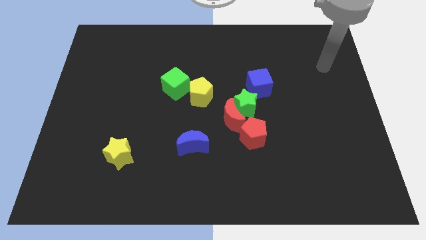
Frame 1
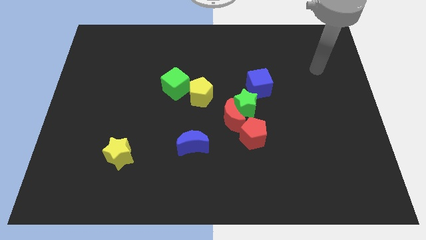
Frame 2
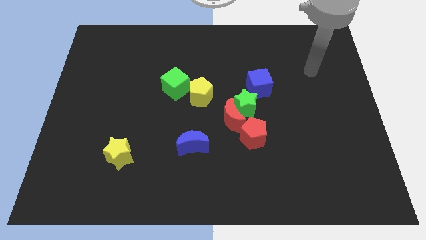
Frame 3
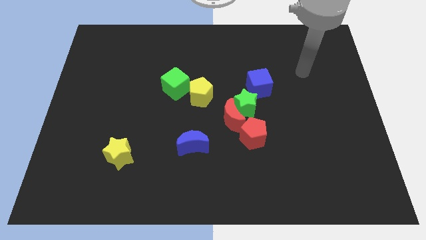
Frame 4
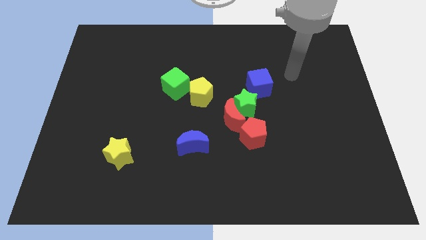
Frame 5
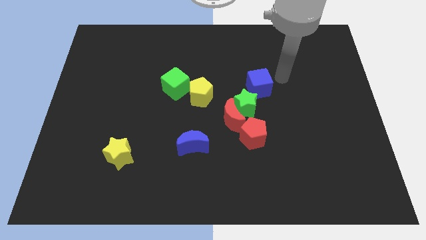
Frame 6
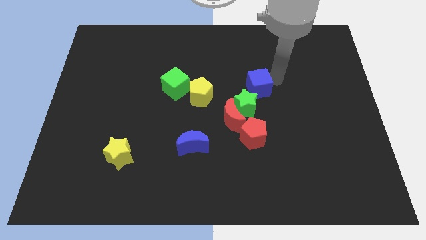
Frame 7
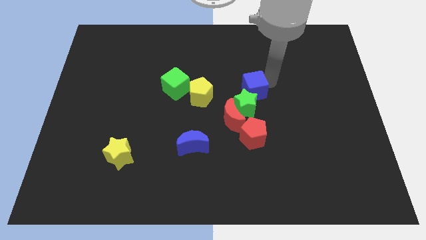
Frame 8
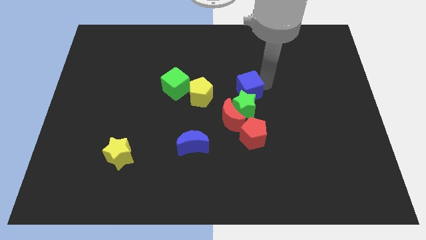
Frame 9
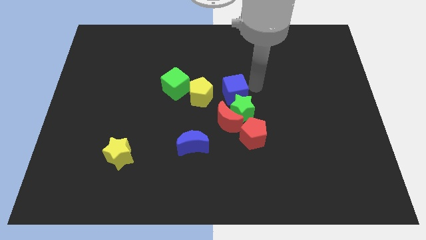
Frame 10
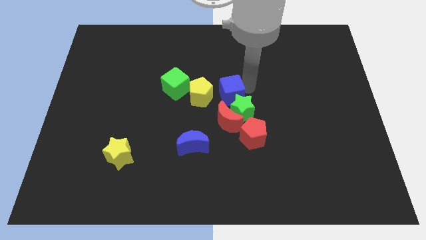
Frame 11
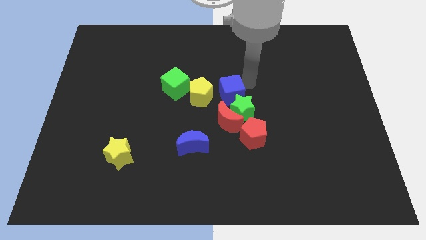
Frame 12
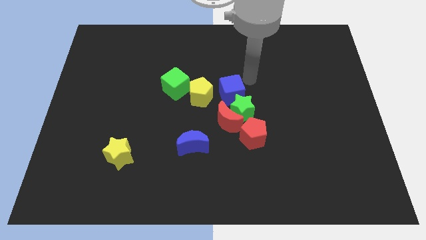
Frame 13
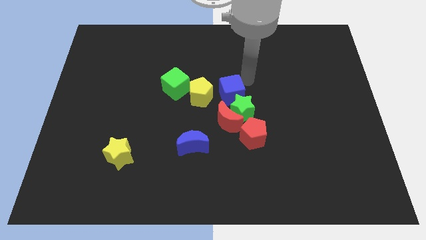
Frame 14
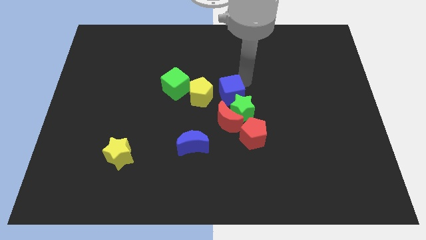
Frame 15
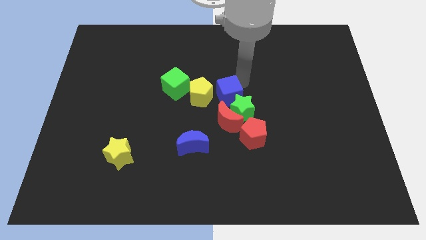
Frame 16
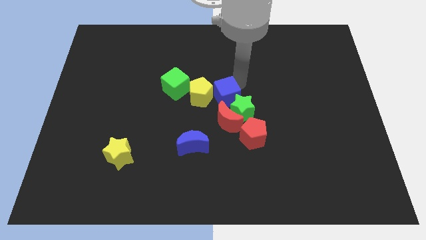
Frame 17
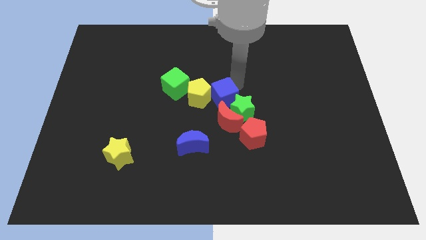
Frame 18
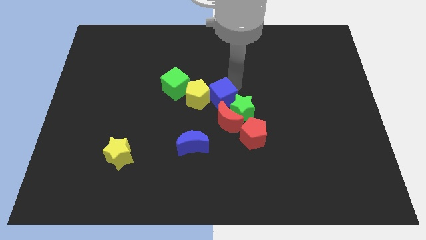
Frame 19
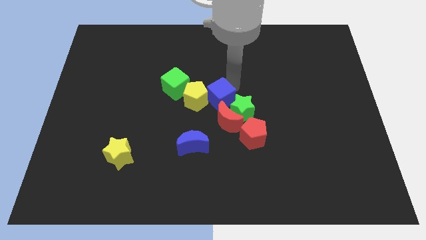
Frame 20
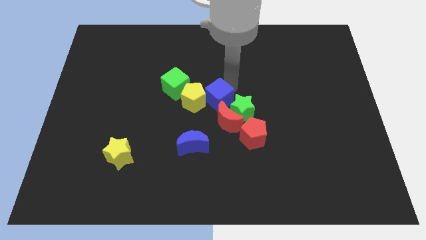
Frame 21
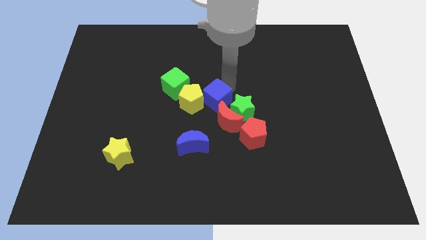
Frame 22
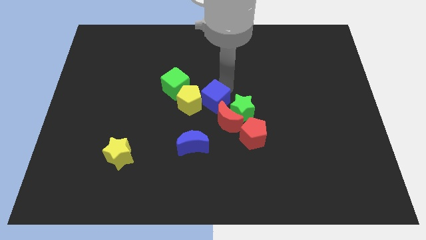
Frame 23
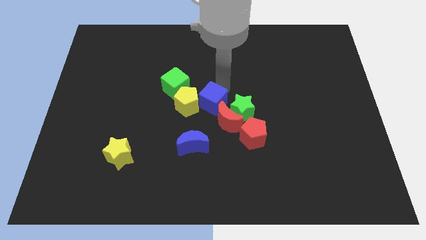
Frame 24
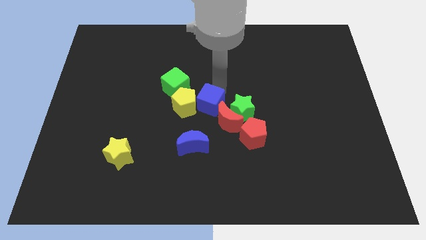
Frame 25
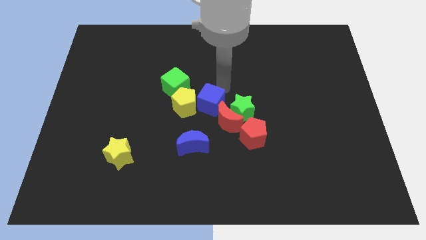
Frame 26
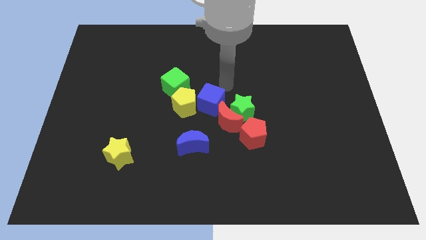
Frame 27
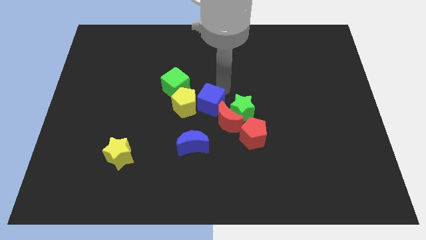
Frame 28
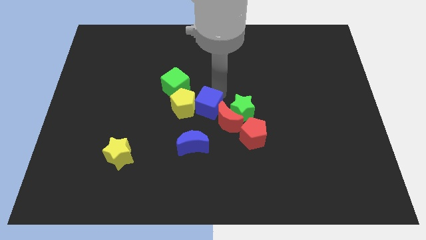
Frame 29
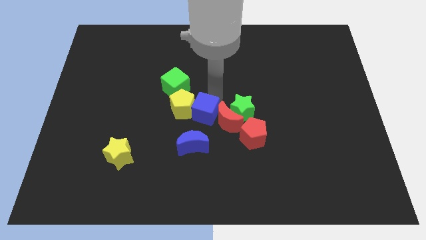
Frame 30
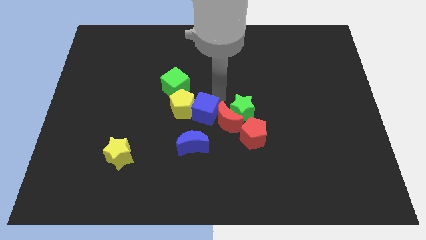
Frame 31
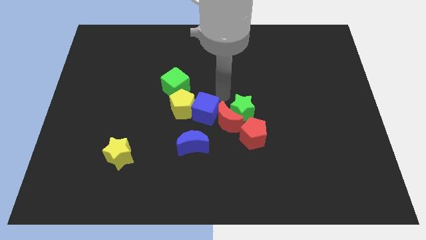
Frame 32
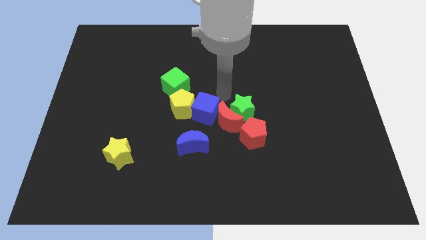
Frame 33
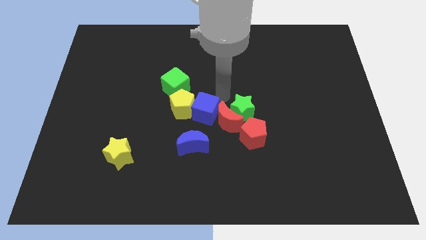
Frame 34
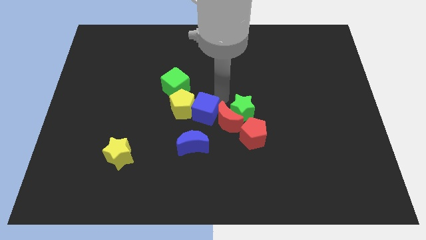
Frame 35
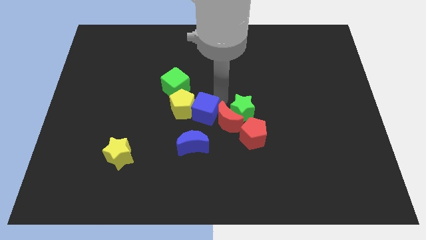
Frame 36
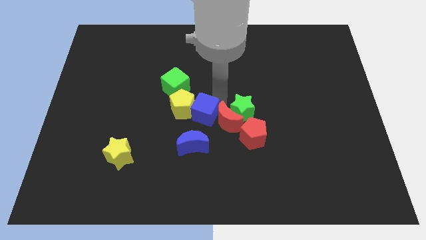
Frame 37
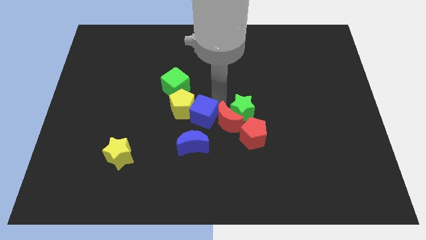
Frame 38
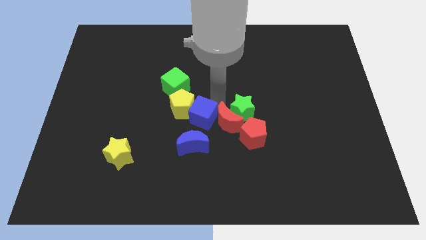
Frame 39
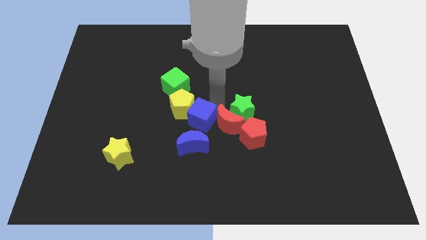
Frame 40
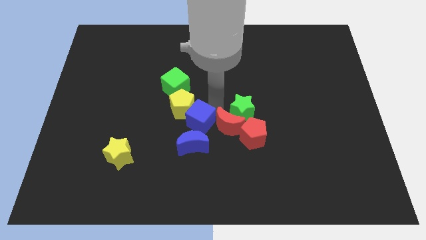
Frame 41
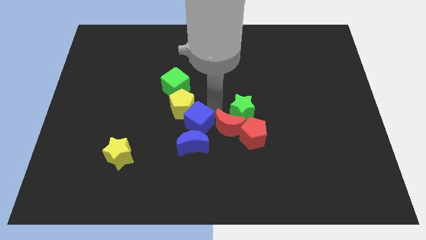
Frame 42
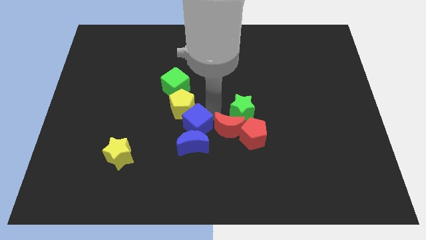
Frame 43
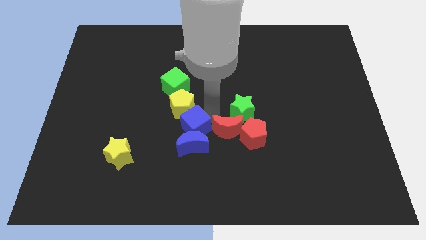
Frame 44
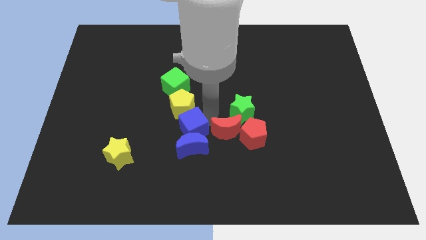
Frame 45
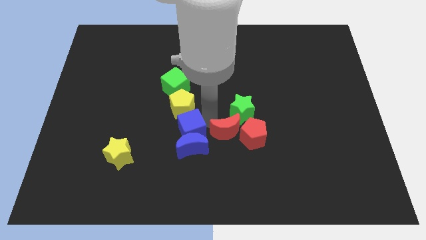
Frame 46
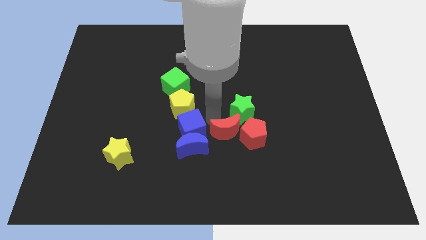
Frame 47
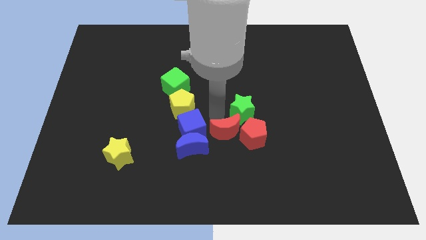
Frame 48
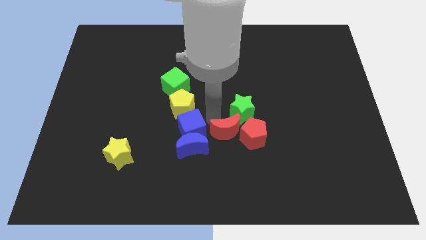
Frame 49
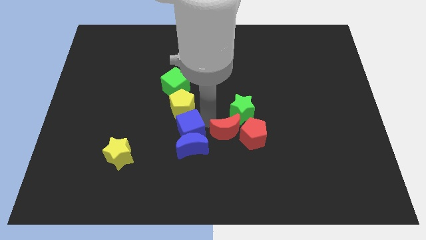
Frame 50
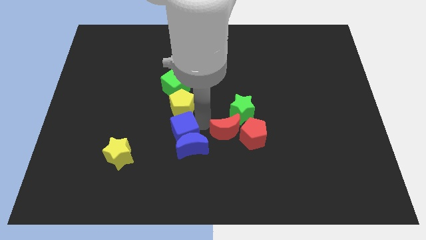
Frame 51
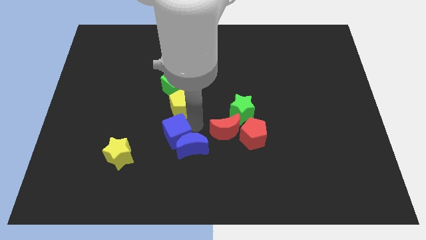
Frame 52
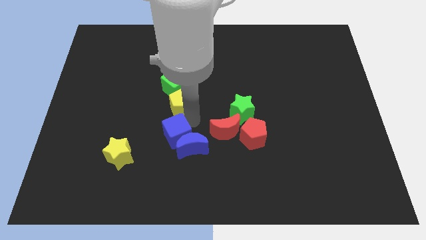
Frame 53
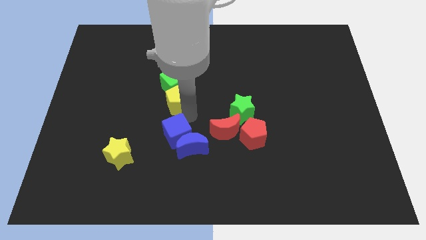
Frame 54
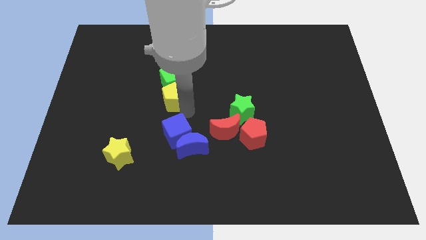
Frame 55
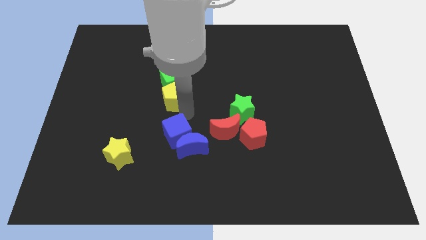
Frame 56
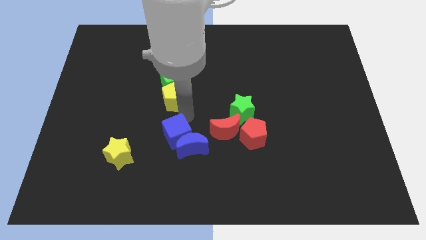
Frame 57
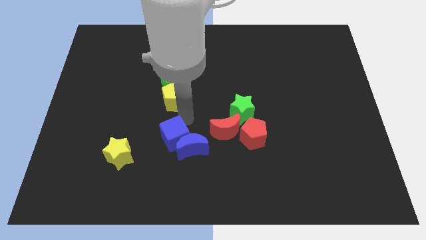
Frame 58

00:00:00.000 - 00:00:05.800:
push the blue cube to the right of the yellow star

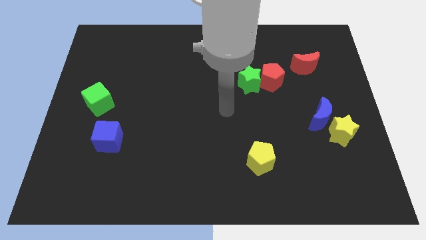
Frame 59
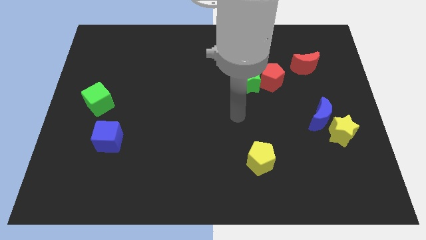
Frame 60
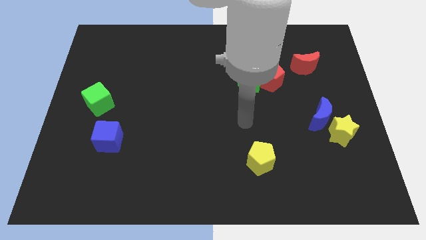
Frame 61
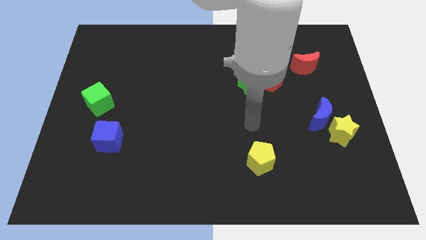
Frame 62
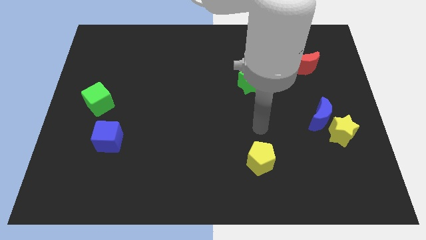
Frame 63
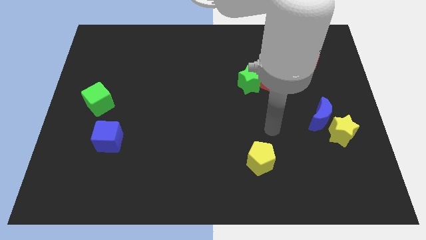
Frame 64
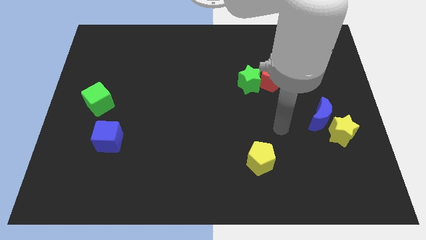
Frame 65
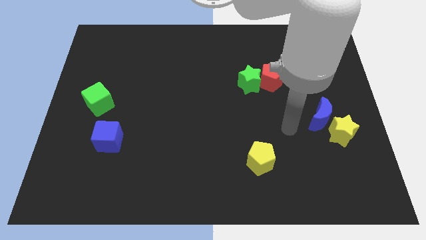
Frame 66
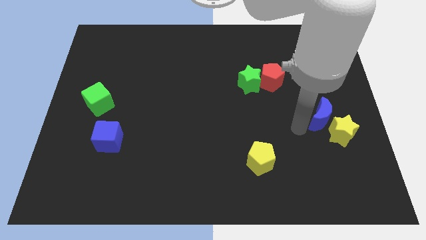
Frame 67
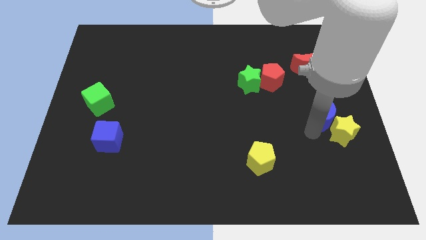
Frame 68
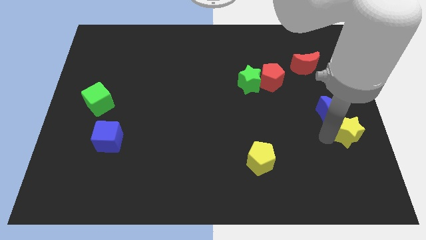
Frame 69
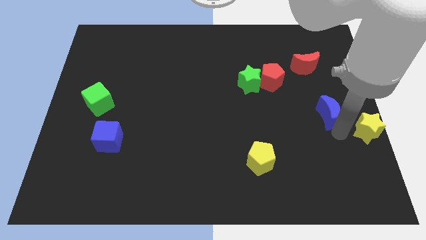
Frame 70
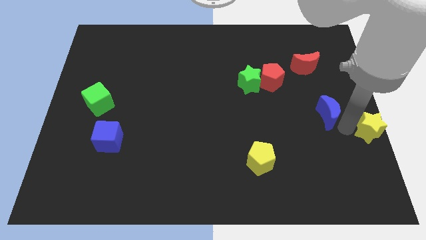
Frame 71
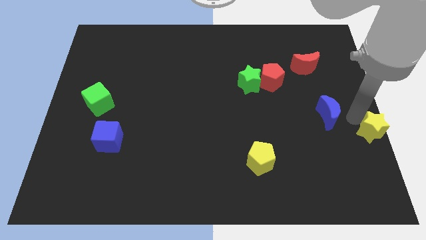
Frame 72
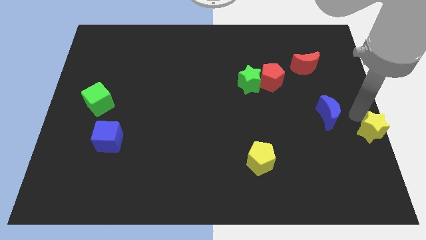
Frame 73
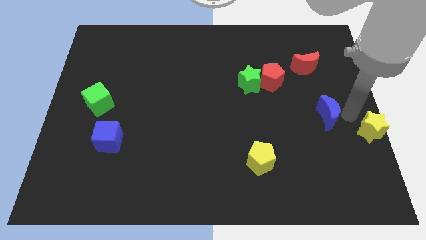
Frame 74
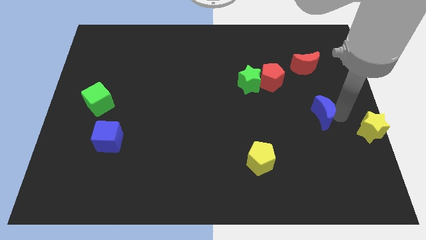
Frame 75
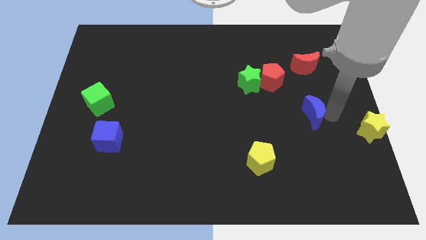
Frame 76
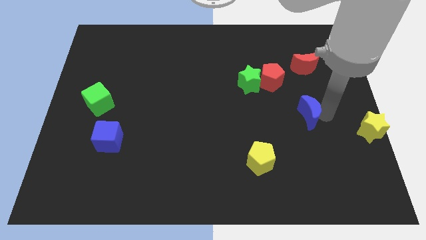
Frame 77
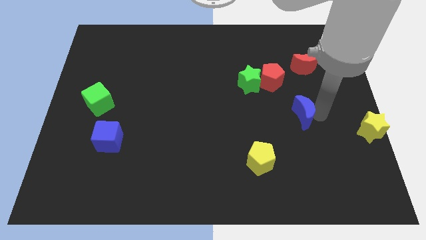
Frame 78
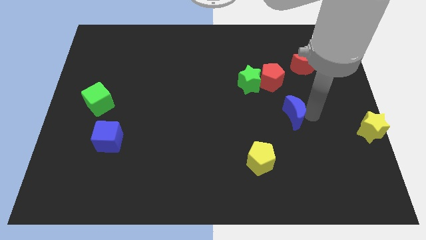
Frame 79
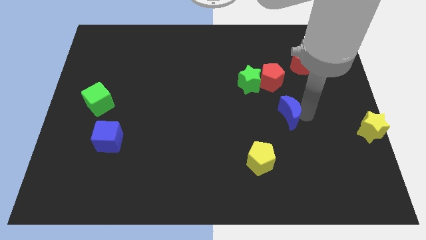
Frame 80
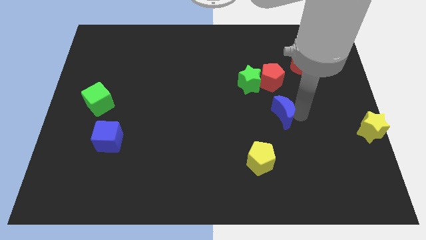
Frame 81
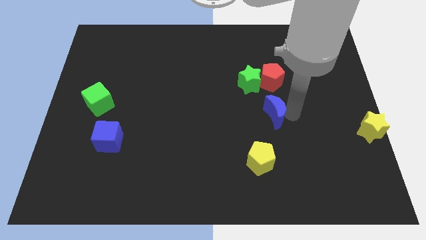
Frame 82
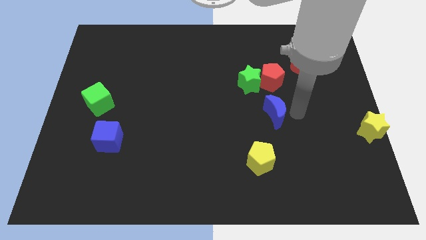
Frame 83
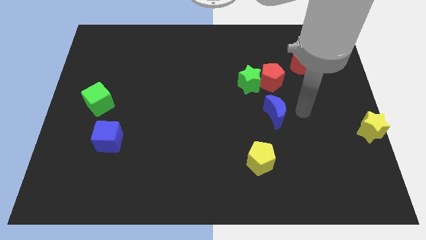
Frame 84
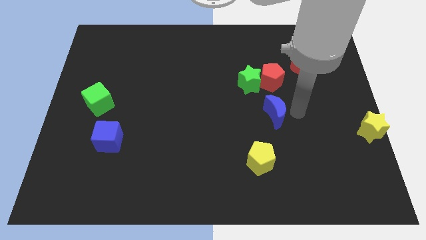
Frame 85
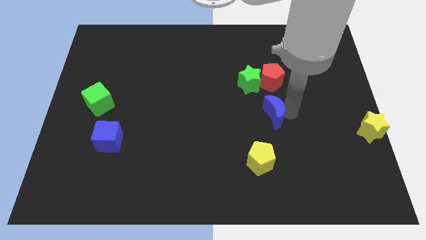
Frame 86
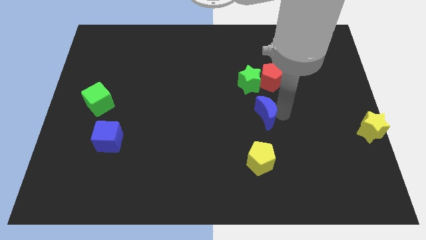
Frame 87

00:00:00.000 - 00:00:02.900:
move the blue moon to the bottom of the green star
